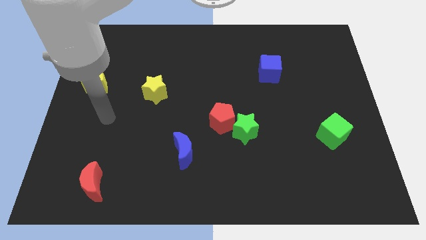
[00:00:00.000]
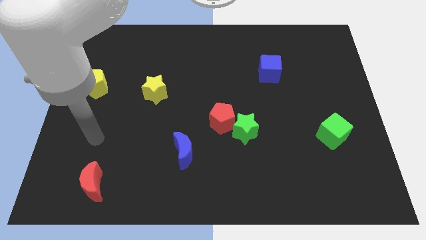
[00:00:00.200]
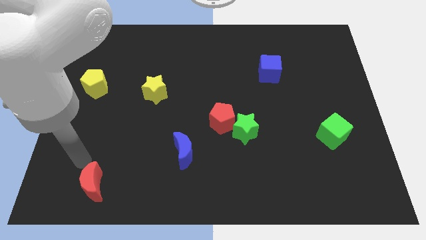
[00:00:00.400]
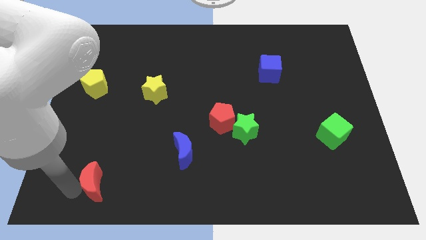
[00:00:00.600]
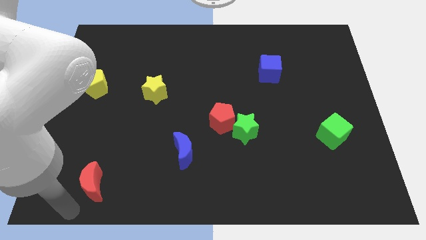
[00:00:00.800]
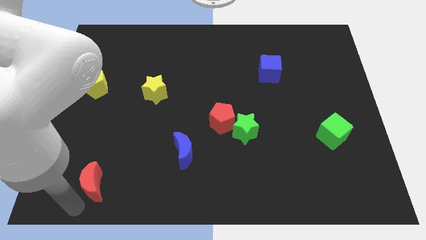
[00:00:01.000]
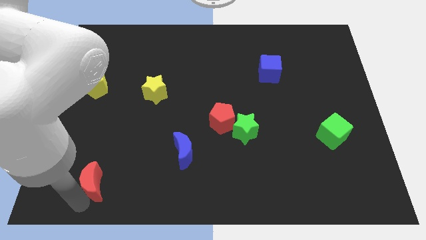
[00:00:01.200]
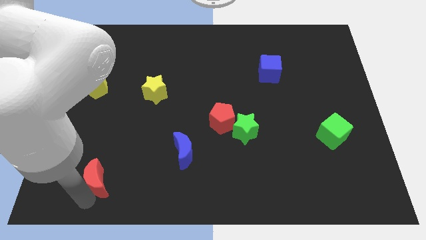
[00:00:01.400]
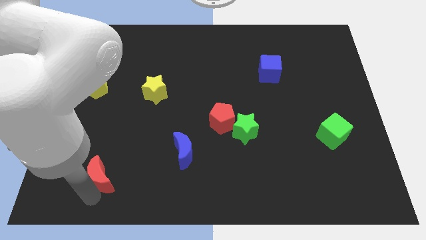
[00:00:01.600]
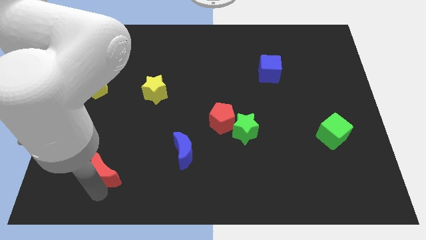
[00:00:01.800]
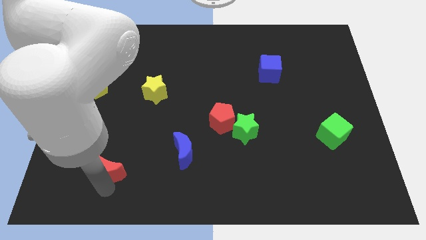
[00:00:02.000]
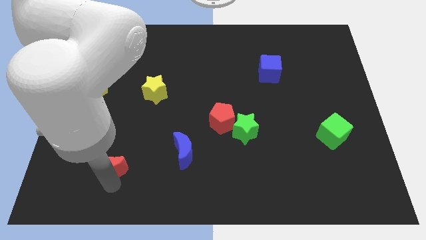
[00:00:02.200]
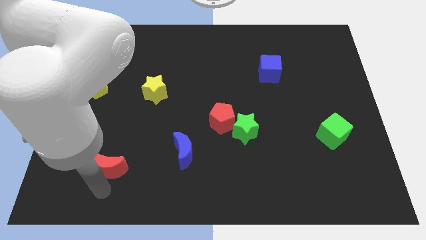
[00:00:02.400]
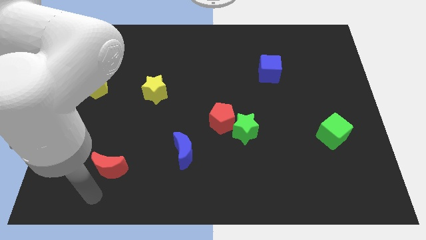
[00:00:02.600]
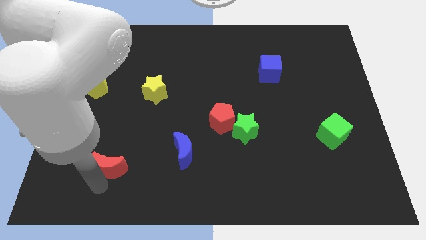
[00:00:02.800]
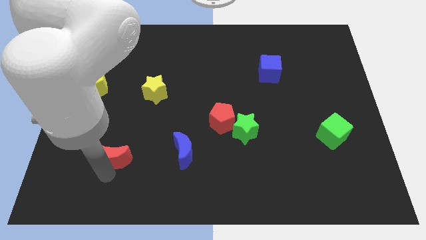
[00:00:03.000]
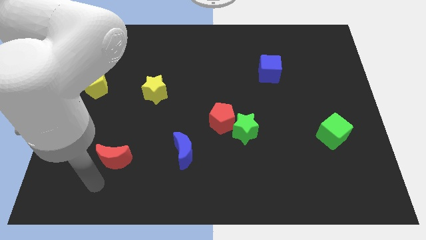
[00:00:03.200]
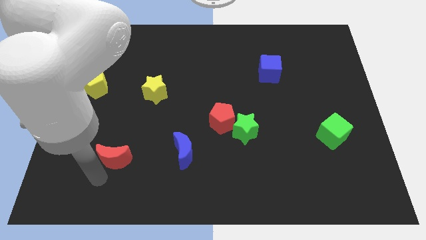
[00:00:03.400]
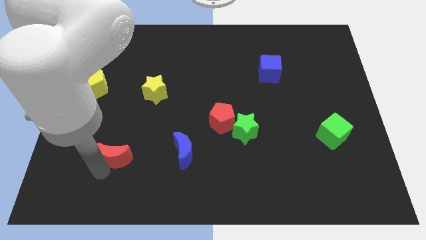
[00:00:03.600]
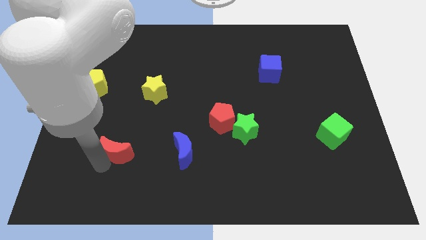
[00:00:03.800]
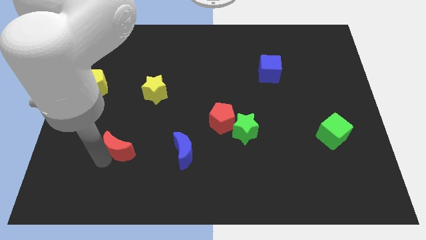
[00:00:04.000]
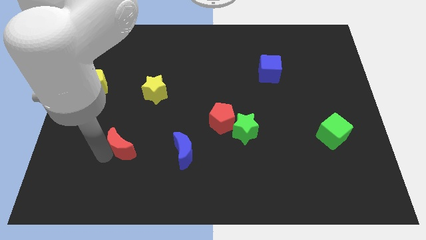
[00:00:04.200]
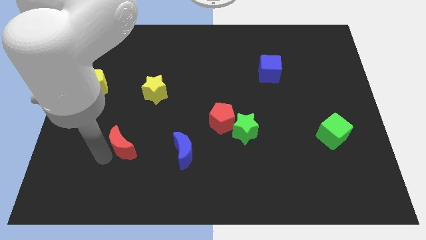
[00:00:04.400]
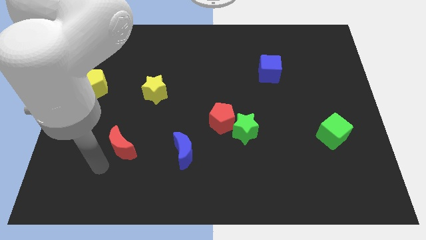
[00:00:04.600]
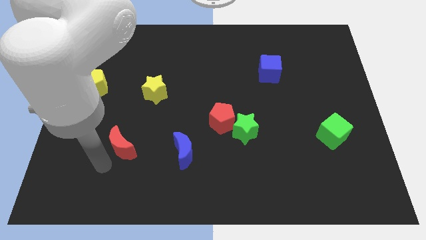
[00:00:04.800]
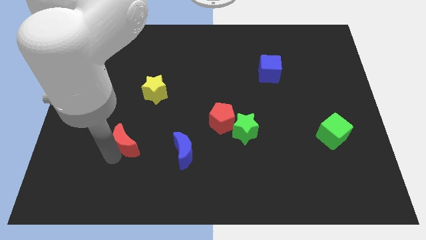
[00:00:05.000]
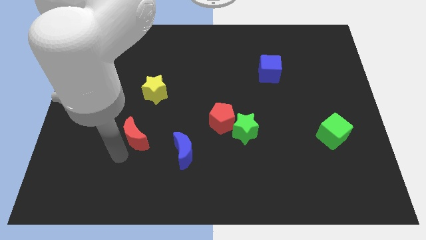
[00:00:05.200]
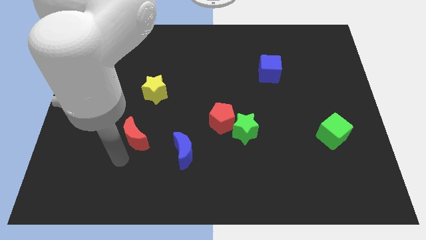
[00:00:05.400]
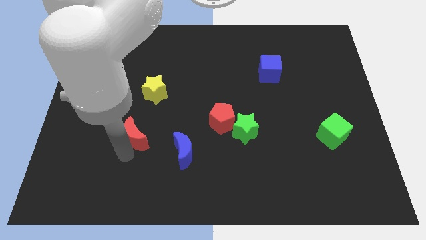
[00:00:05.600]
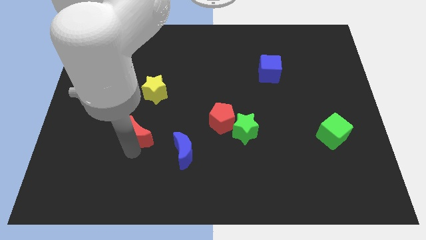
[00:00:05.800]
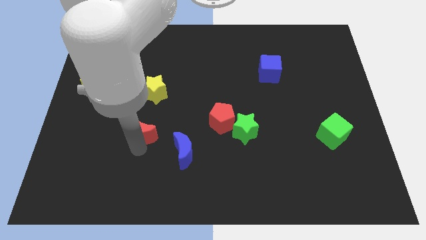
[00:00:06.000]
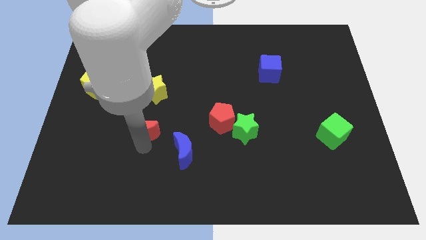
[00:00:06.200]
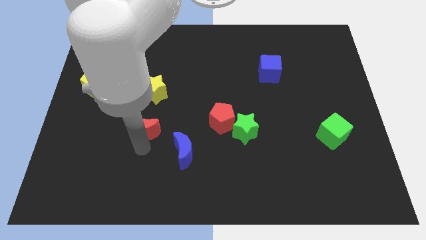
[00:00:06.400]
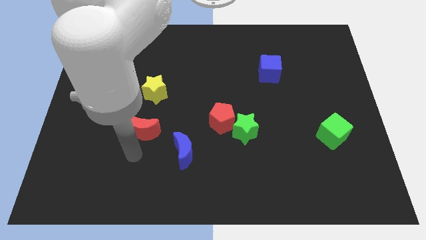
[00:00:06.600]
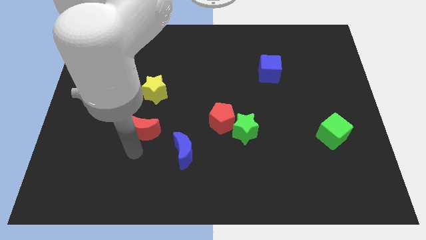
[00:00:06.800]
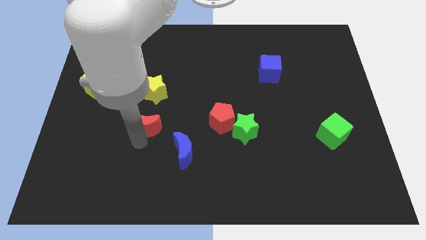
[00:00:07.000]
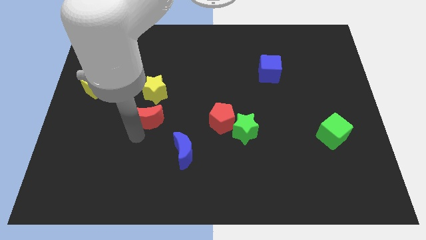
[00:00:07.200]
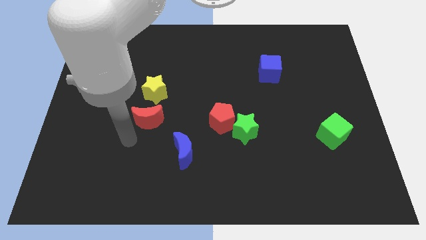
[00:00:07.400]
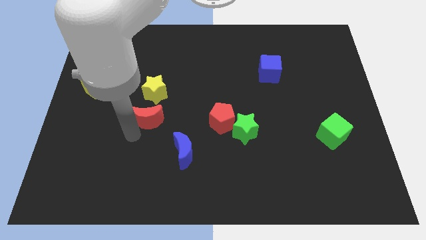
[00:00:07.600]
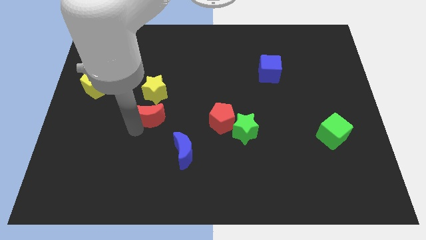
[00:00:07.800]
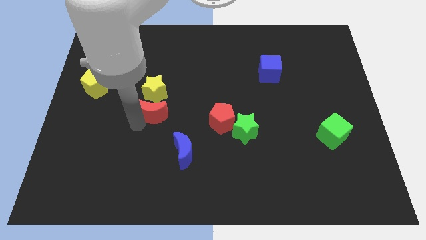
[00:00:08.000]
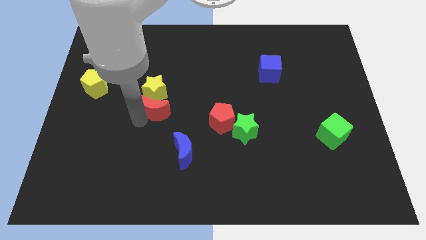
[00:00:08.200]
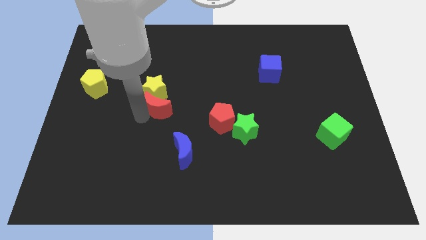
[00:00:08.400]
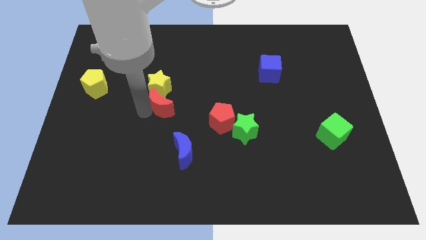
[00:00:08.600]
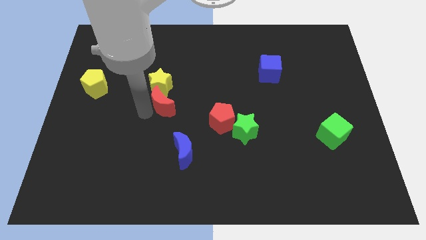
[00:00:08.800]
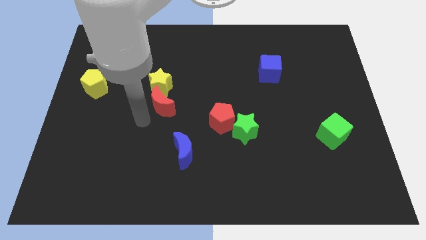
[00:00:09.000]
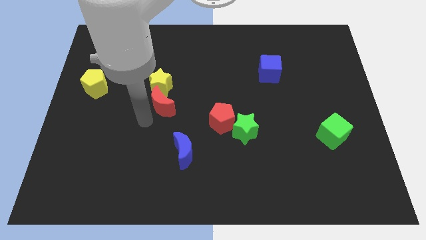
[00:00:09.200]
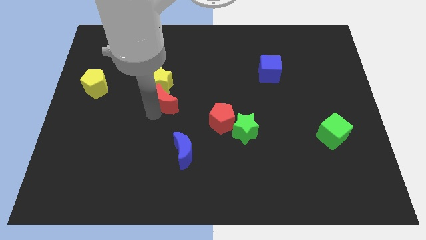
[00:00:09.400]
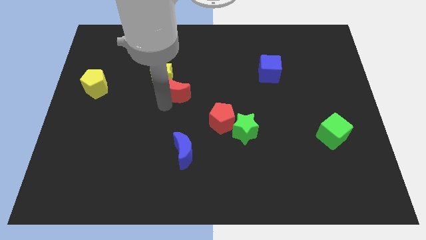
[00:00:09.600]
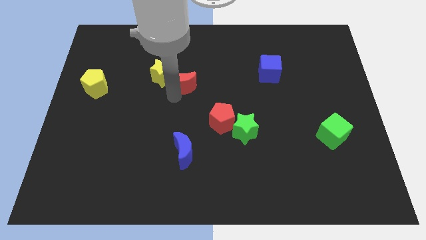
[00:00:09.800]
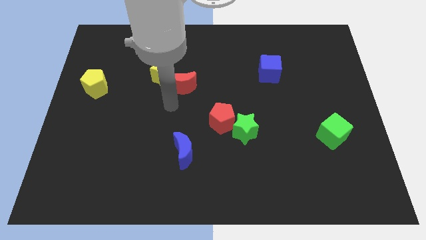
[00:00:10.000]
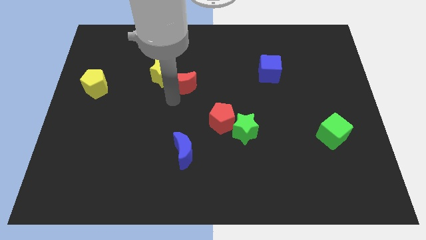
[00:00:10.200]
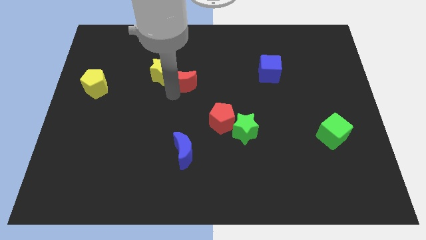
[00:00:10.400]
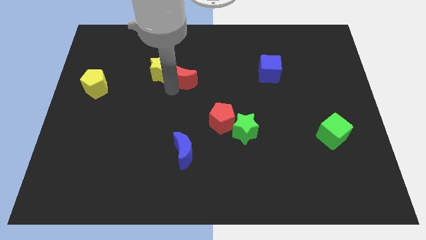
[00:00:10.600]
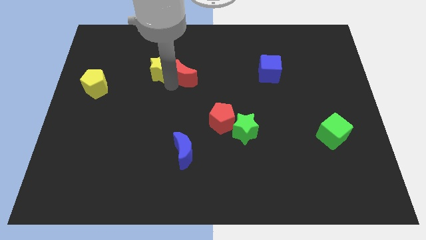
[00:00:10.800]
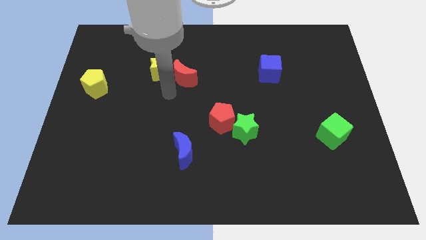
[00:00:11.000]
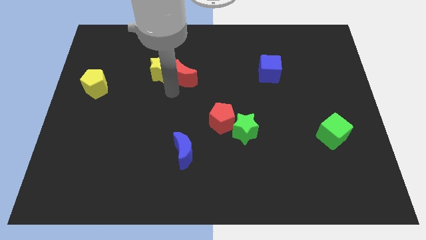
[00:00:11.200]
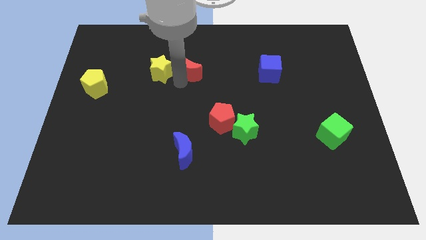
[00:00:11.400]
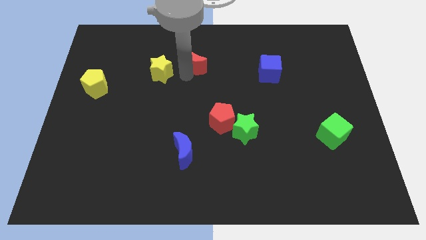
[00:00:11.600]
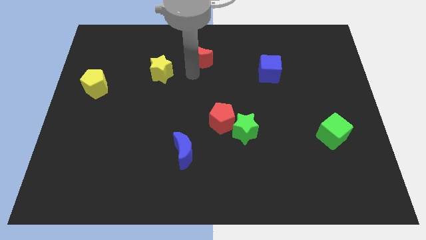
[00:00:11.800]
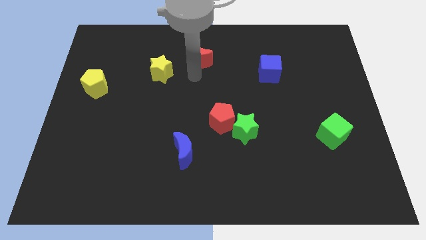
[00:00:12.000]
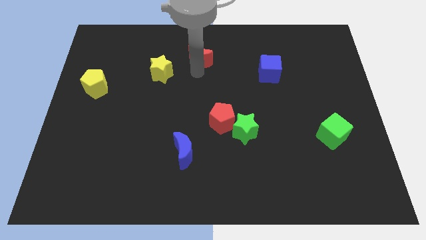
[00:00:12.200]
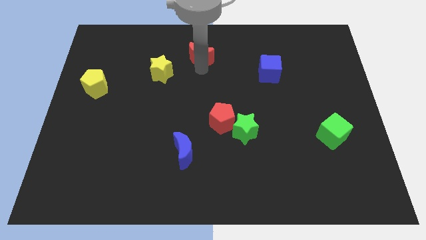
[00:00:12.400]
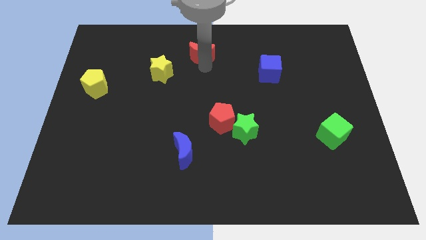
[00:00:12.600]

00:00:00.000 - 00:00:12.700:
push the red moon to the top
